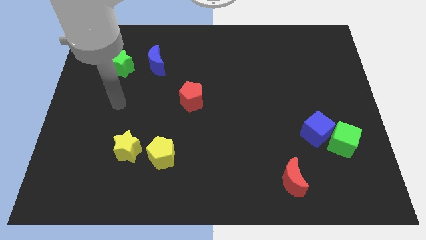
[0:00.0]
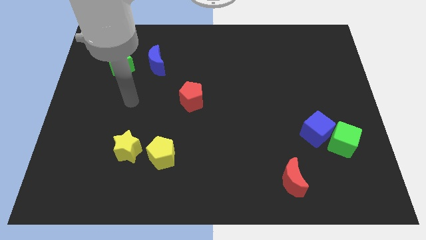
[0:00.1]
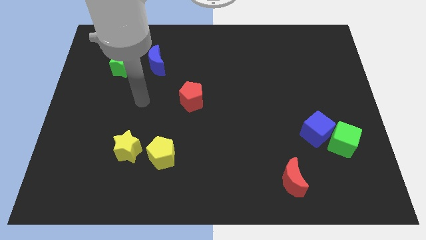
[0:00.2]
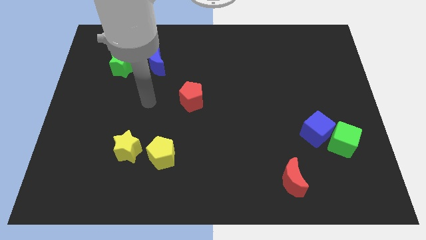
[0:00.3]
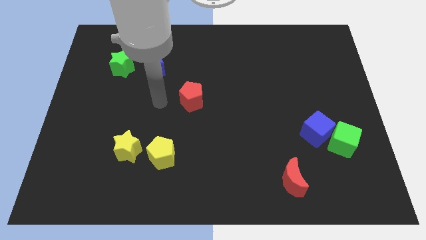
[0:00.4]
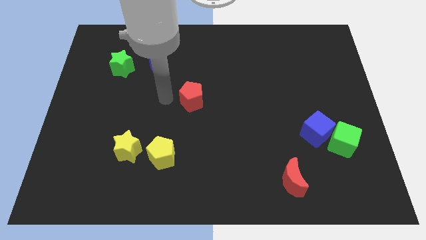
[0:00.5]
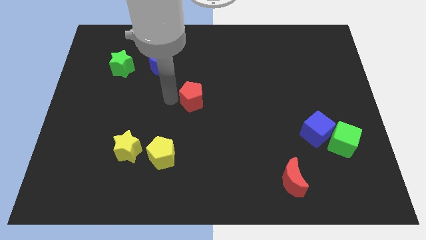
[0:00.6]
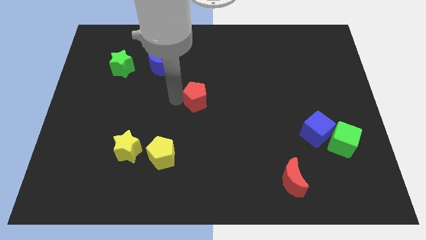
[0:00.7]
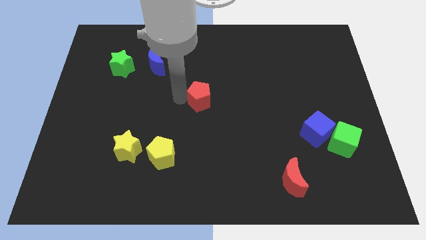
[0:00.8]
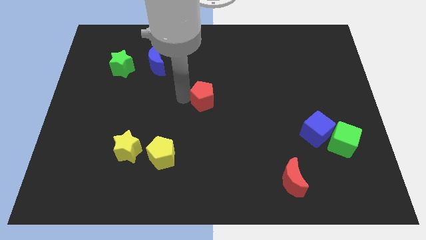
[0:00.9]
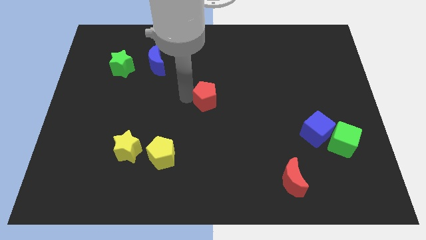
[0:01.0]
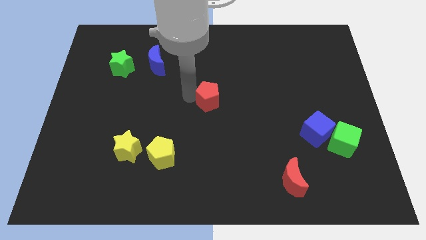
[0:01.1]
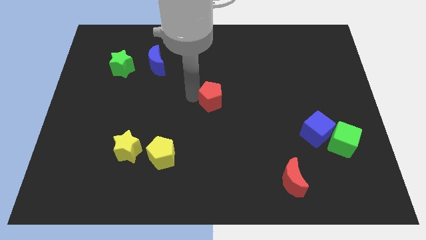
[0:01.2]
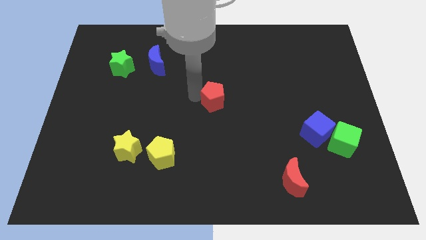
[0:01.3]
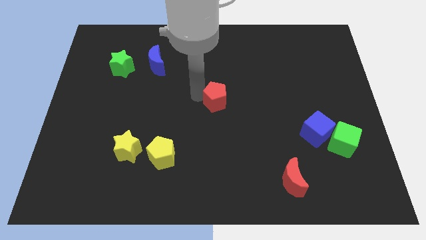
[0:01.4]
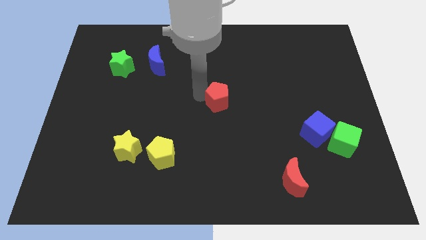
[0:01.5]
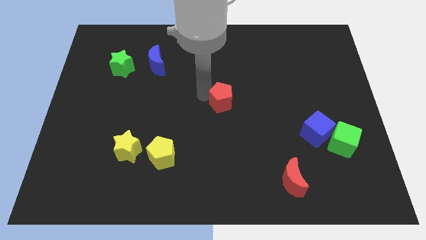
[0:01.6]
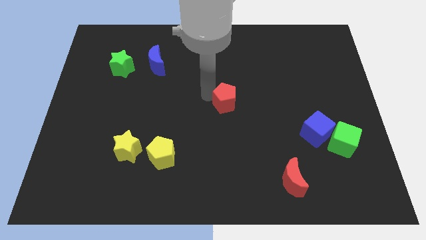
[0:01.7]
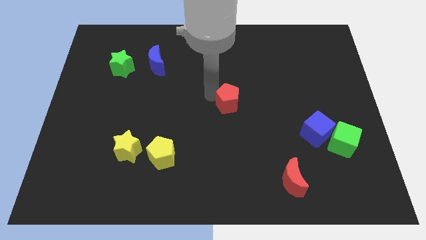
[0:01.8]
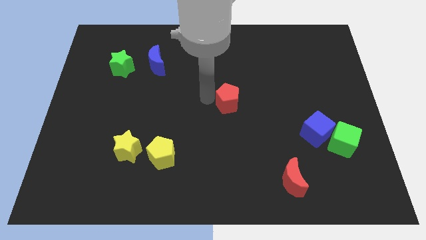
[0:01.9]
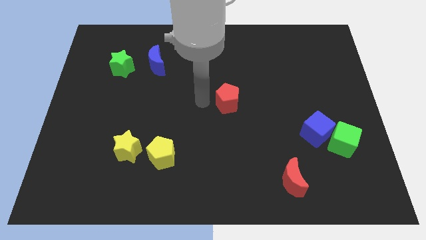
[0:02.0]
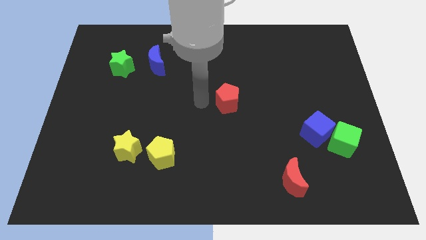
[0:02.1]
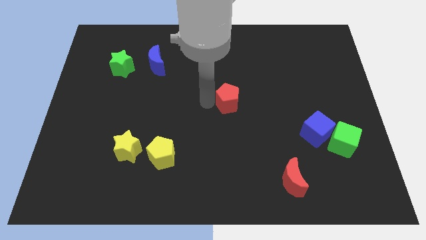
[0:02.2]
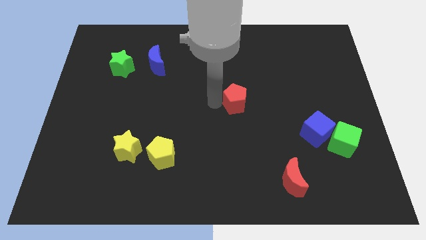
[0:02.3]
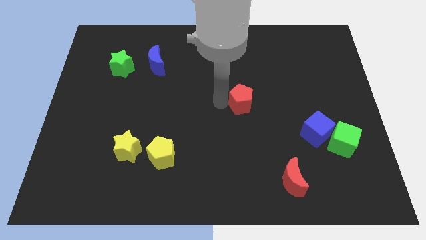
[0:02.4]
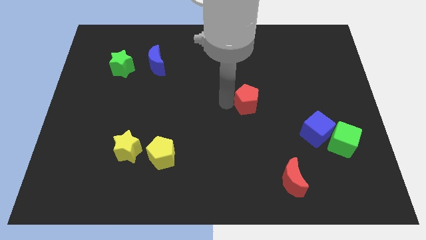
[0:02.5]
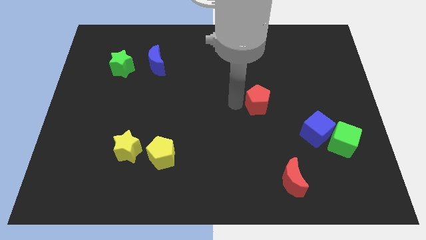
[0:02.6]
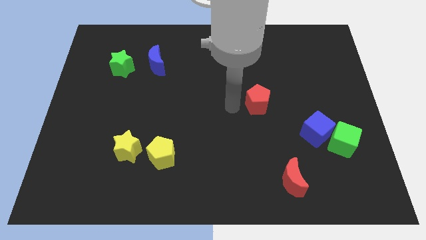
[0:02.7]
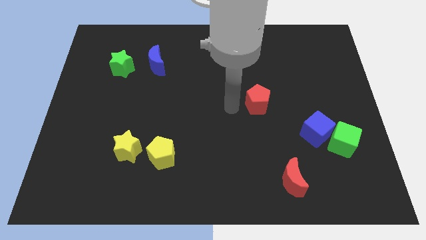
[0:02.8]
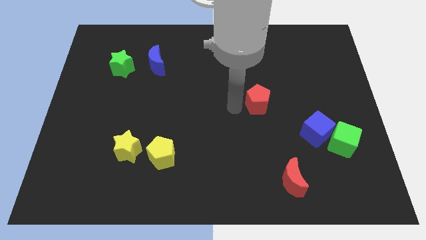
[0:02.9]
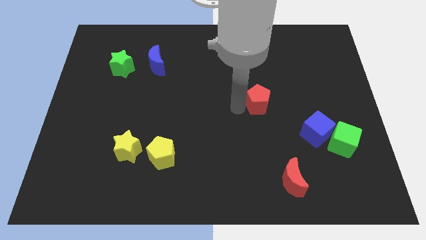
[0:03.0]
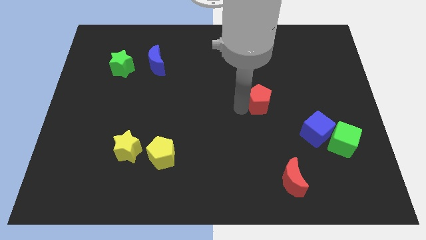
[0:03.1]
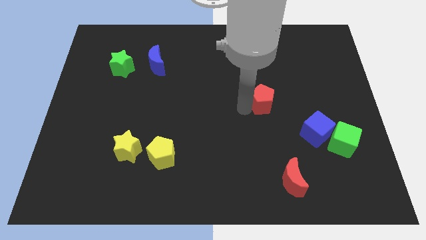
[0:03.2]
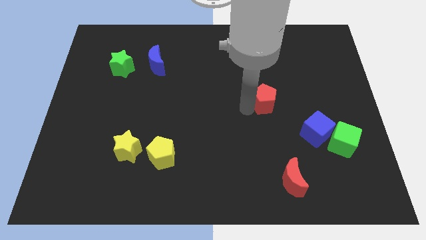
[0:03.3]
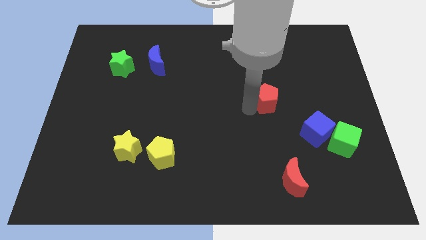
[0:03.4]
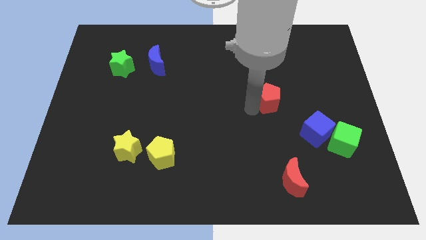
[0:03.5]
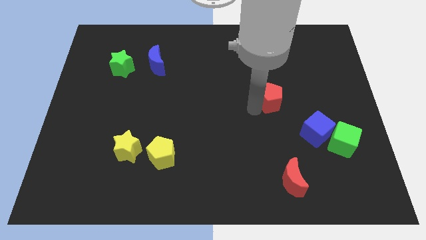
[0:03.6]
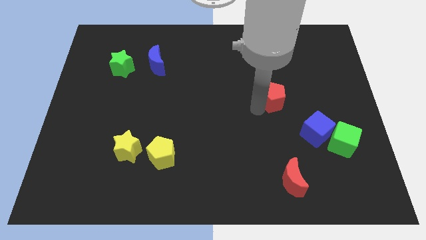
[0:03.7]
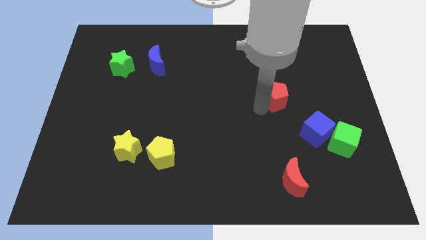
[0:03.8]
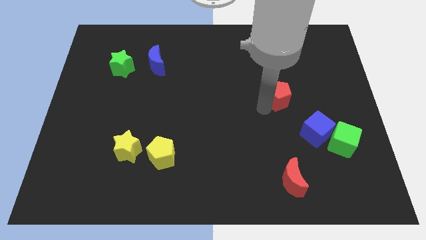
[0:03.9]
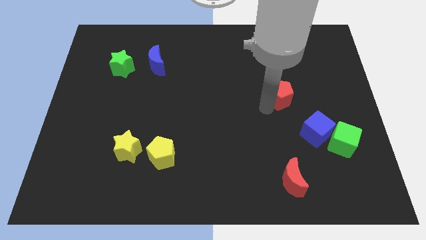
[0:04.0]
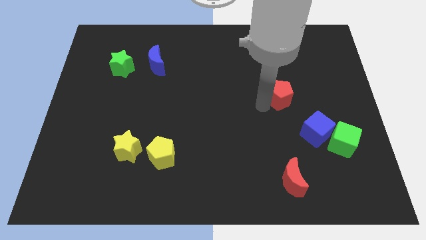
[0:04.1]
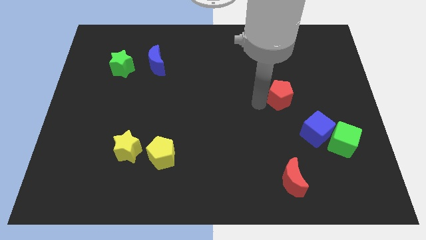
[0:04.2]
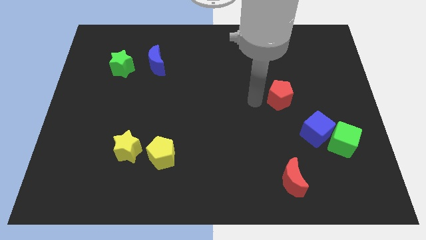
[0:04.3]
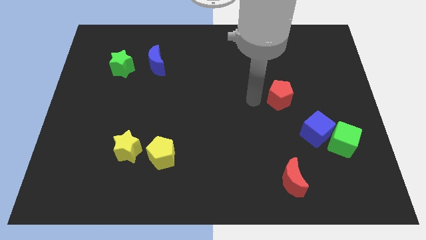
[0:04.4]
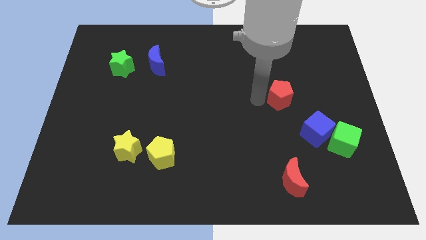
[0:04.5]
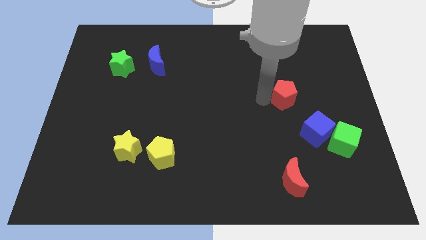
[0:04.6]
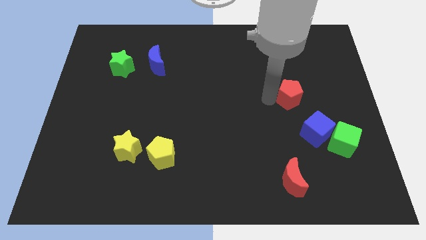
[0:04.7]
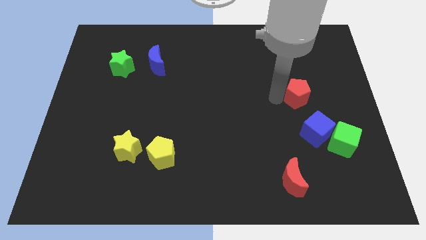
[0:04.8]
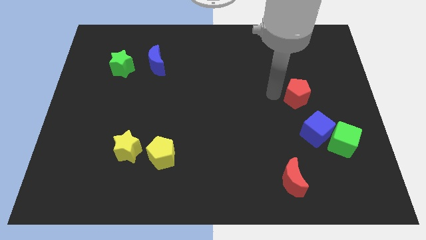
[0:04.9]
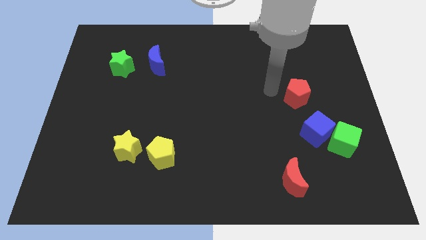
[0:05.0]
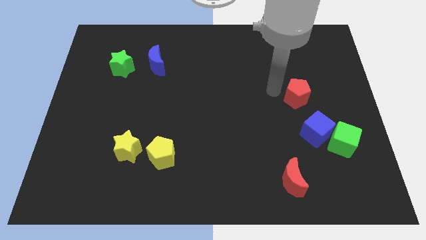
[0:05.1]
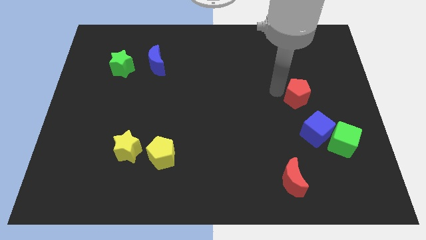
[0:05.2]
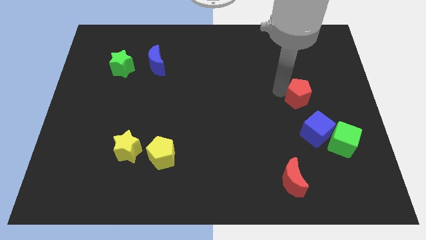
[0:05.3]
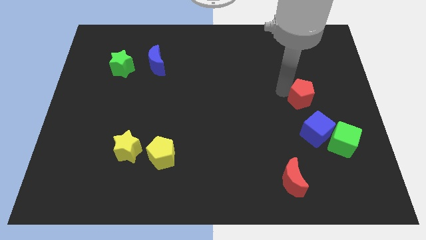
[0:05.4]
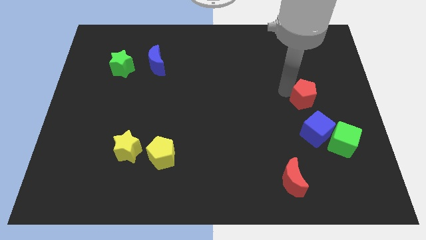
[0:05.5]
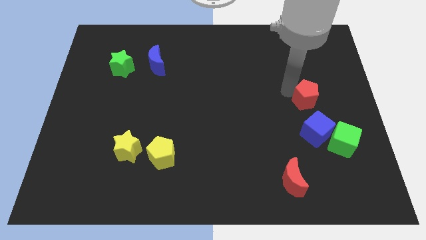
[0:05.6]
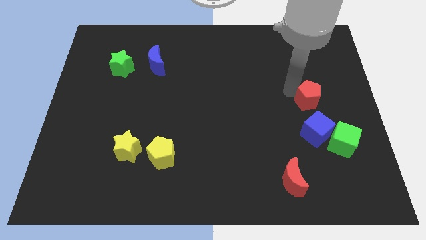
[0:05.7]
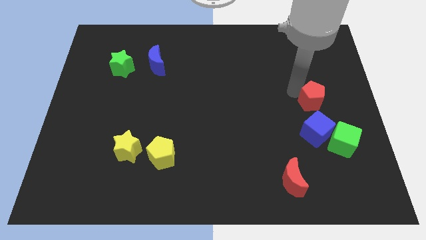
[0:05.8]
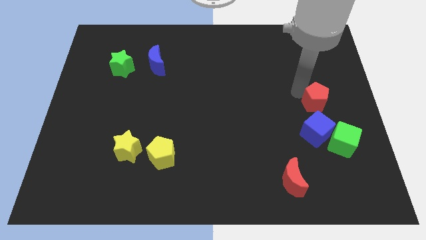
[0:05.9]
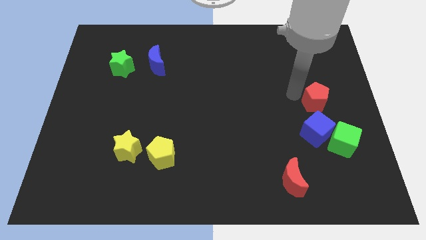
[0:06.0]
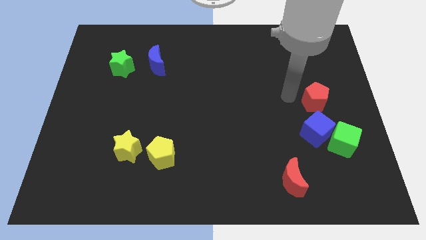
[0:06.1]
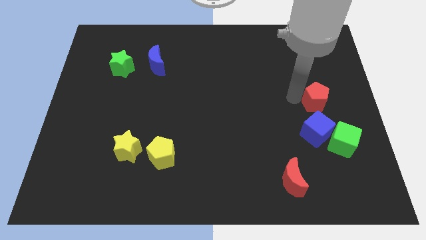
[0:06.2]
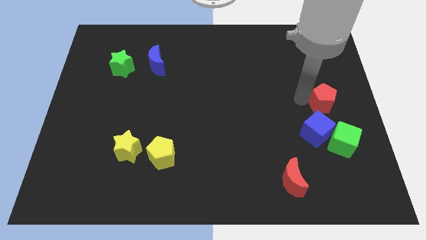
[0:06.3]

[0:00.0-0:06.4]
put the red pentagon to the right side

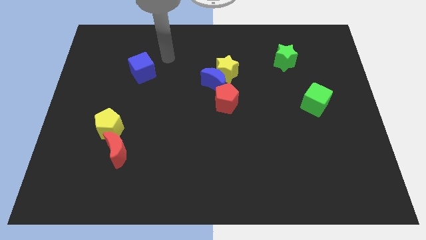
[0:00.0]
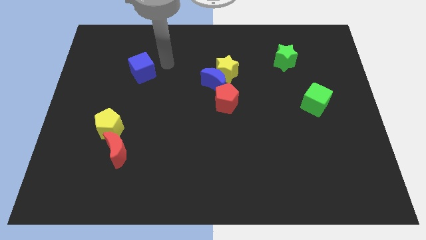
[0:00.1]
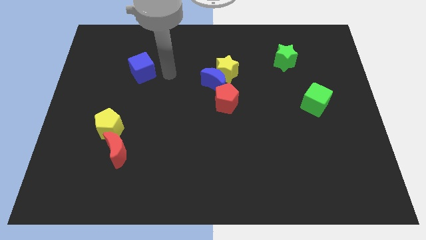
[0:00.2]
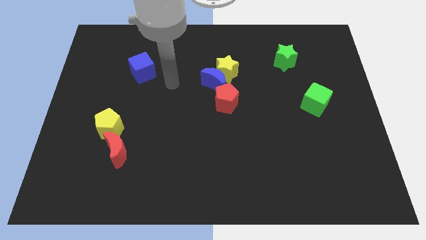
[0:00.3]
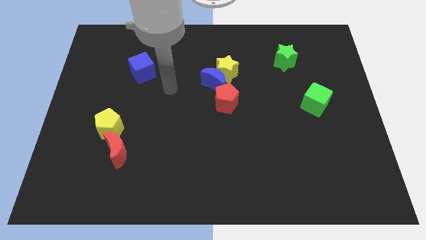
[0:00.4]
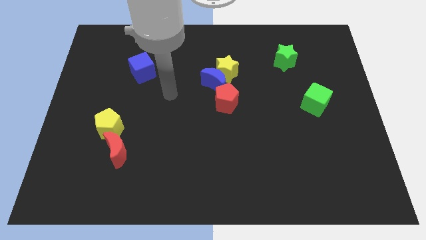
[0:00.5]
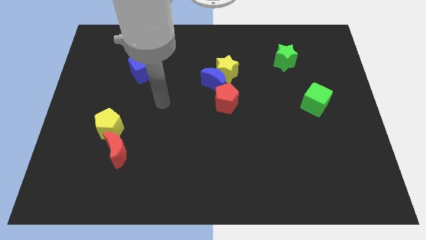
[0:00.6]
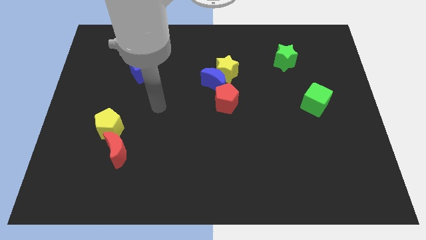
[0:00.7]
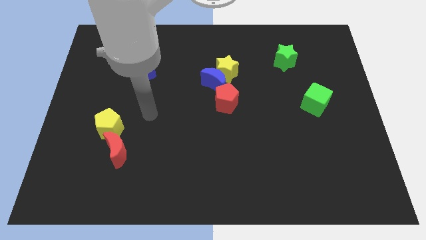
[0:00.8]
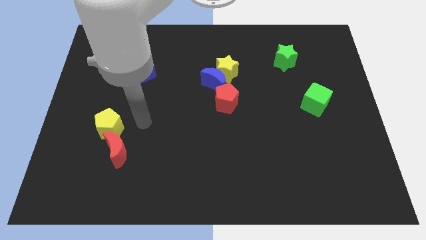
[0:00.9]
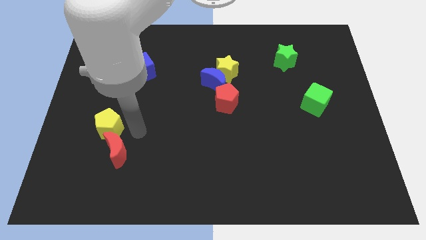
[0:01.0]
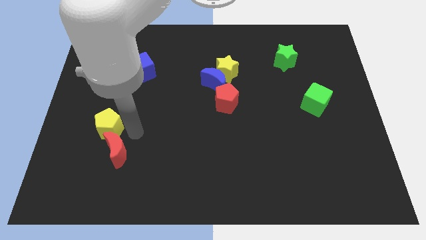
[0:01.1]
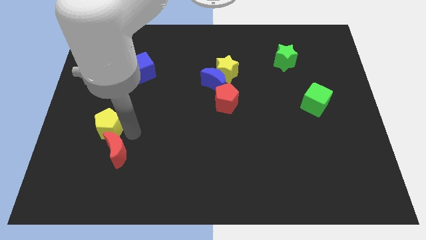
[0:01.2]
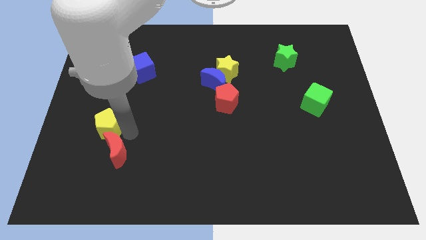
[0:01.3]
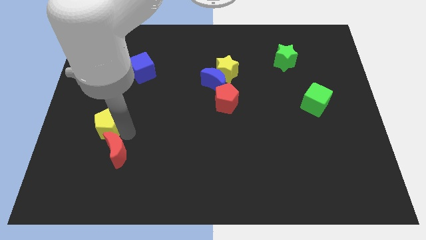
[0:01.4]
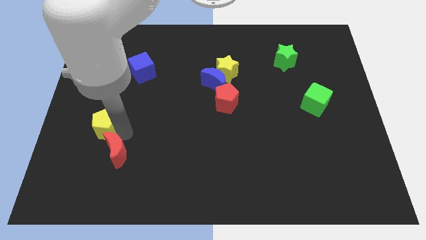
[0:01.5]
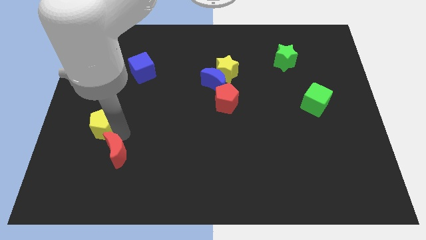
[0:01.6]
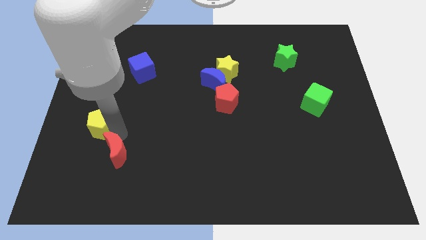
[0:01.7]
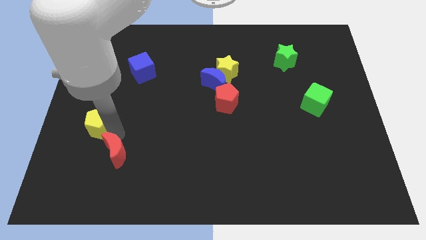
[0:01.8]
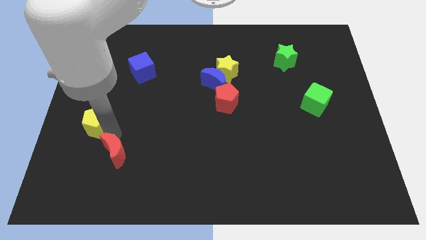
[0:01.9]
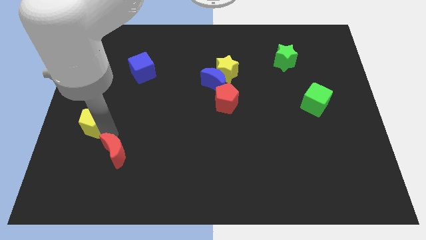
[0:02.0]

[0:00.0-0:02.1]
put the yellow pentagon to the left side
